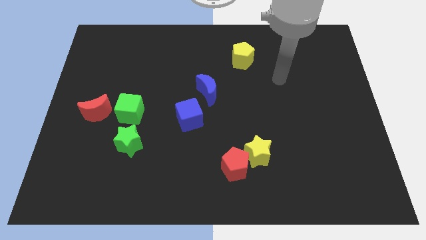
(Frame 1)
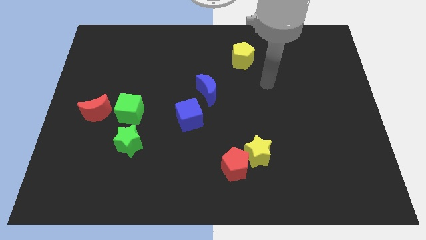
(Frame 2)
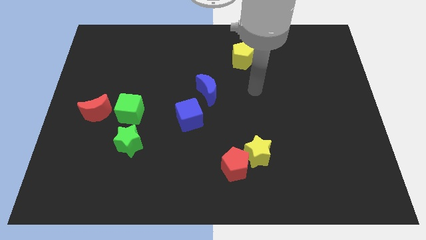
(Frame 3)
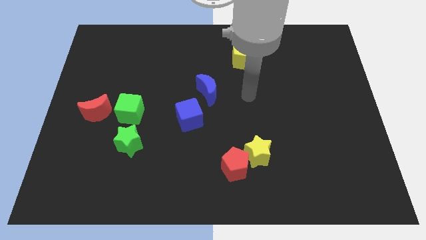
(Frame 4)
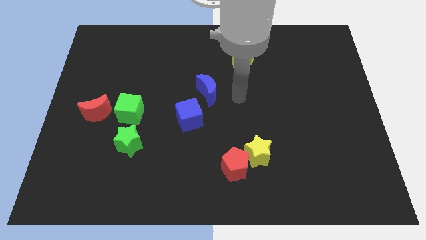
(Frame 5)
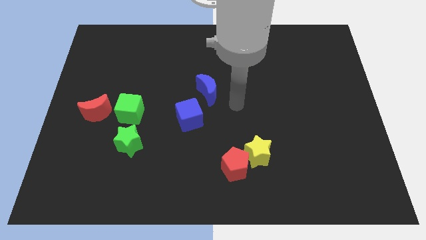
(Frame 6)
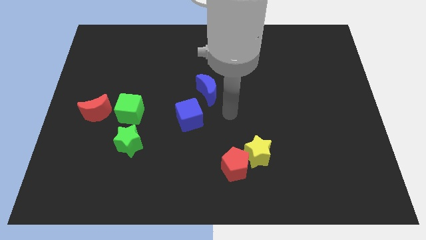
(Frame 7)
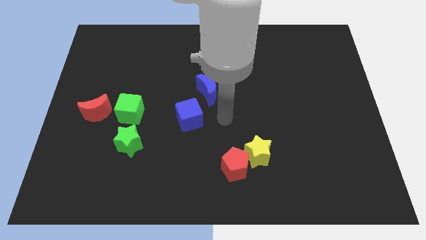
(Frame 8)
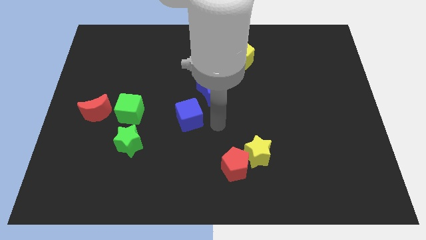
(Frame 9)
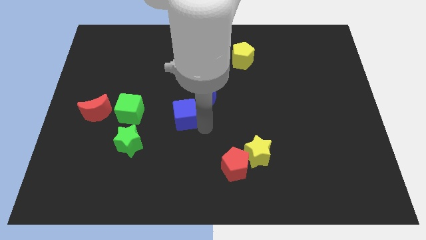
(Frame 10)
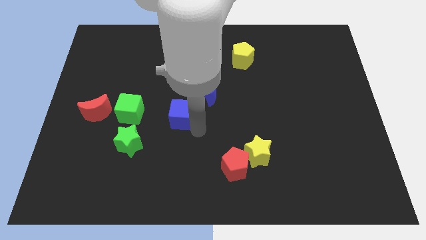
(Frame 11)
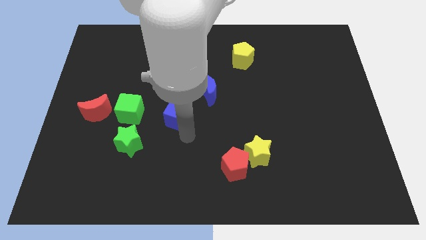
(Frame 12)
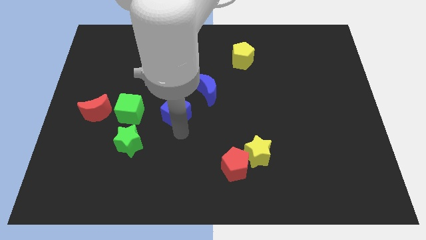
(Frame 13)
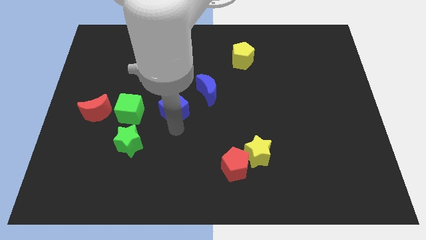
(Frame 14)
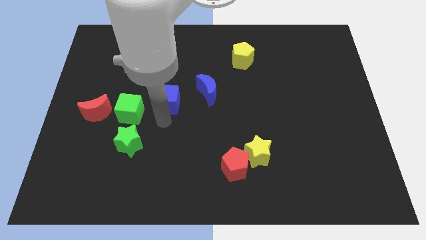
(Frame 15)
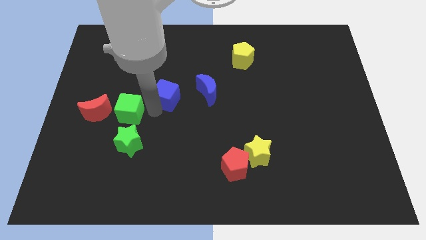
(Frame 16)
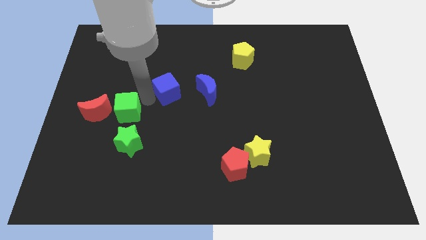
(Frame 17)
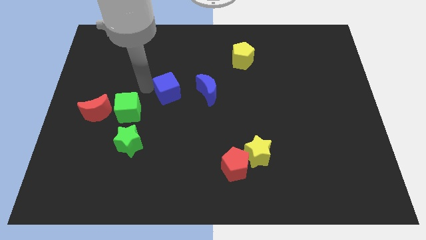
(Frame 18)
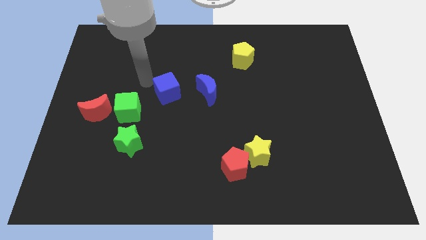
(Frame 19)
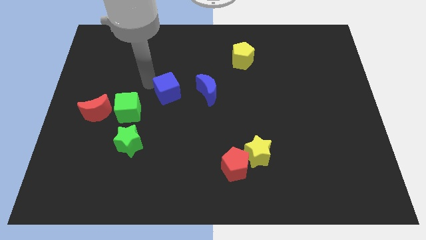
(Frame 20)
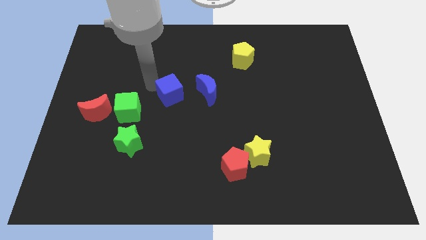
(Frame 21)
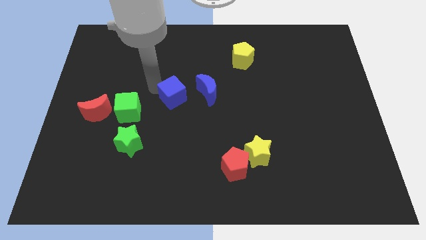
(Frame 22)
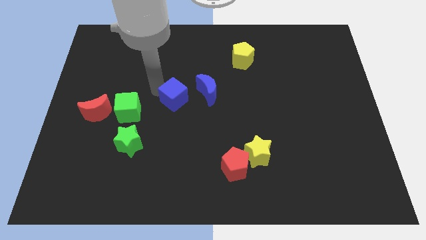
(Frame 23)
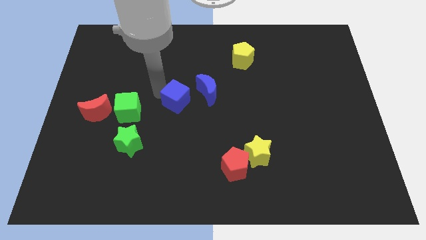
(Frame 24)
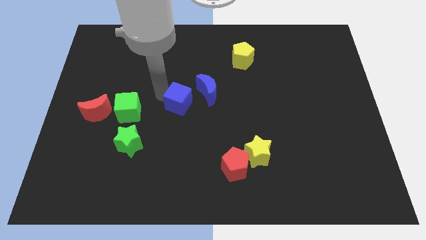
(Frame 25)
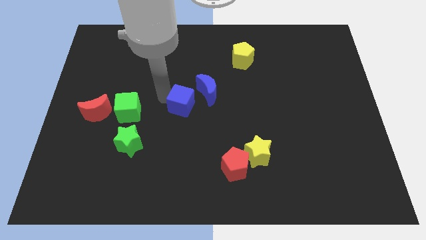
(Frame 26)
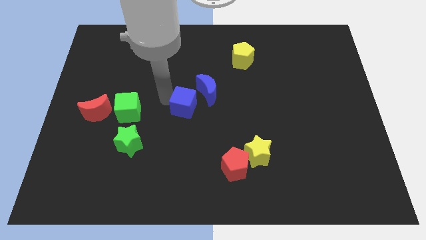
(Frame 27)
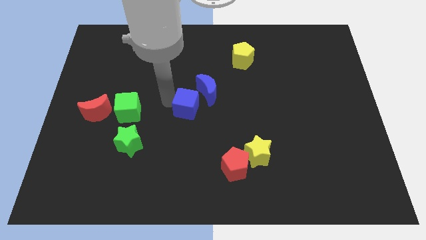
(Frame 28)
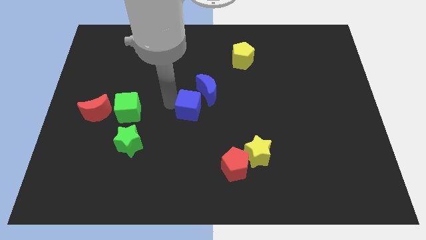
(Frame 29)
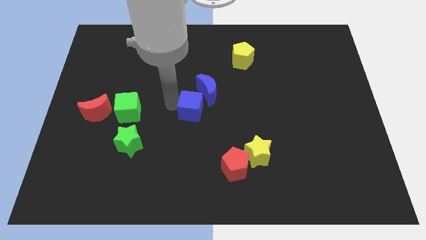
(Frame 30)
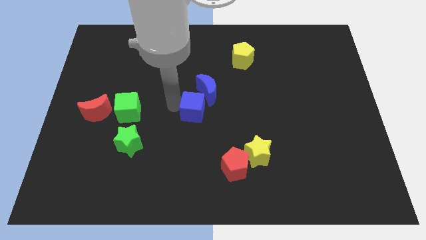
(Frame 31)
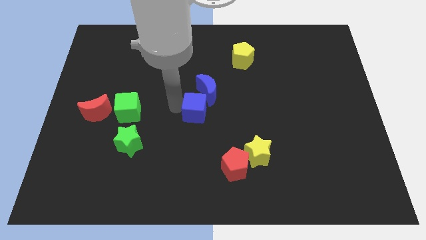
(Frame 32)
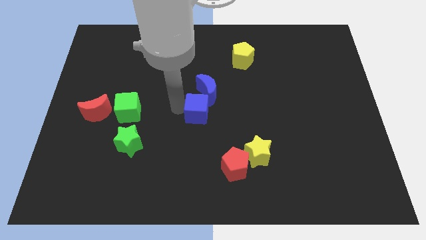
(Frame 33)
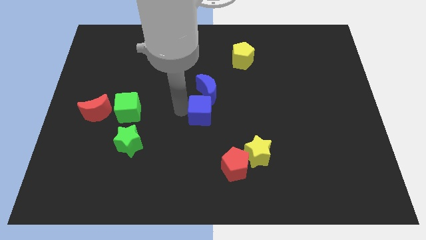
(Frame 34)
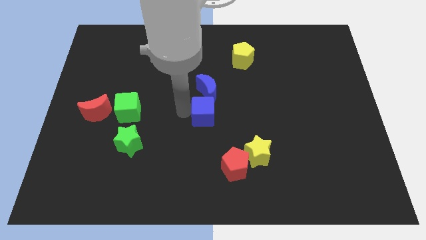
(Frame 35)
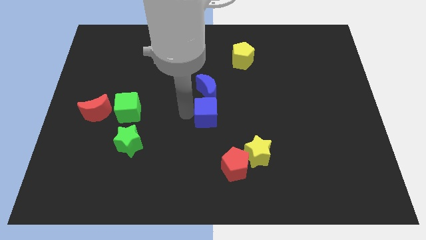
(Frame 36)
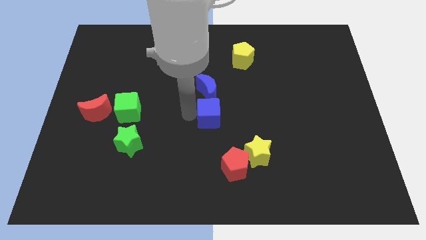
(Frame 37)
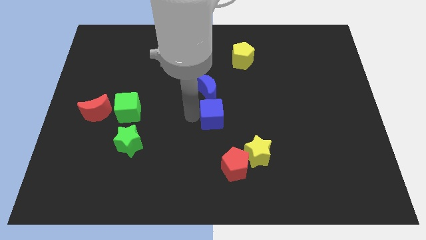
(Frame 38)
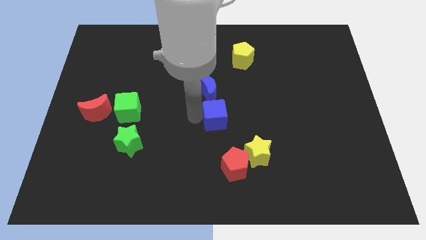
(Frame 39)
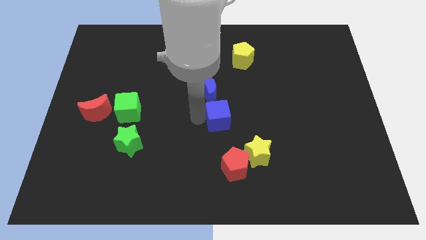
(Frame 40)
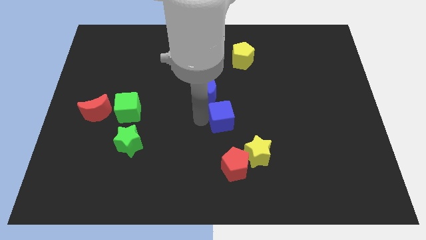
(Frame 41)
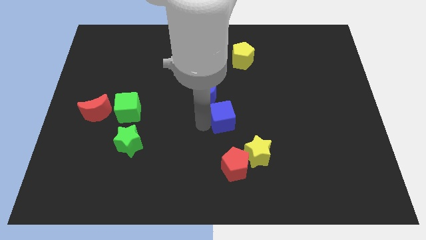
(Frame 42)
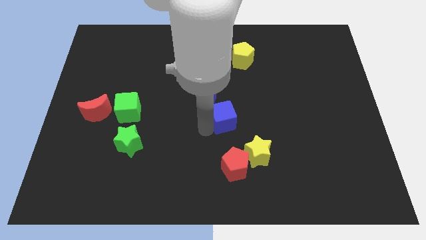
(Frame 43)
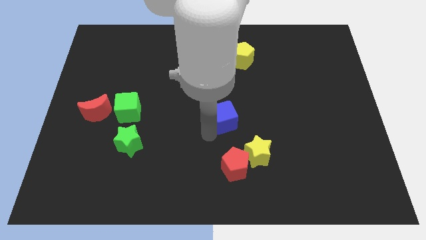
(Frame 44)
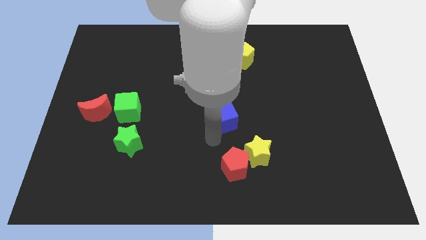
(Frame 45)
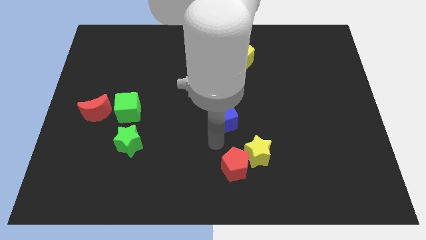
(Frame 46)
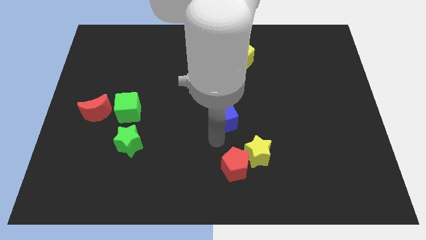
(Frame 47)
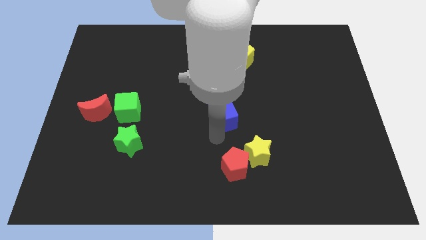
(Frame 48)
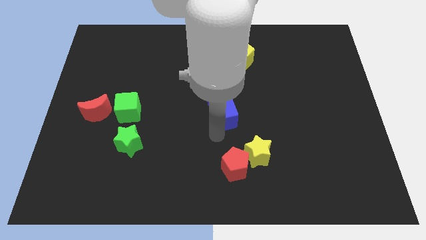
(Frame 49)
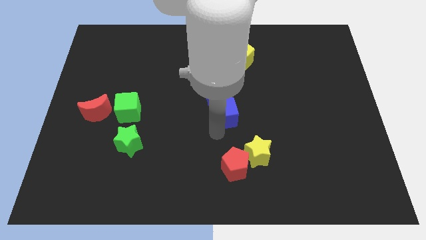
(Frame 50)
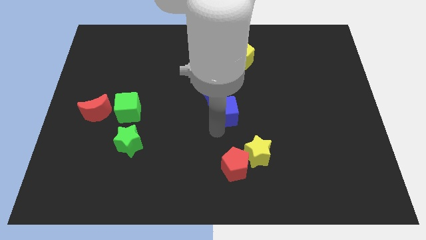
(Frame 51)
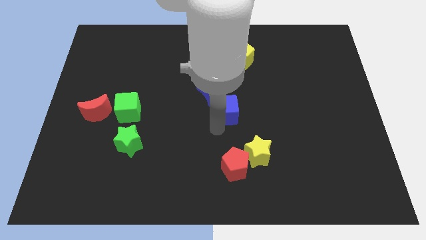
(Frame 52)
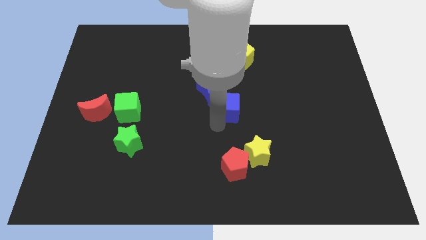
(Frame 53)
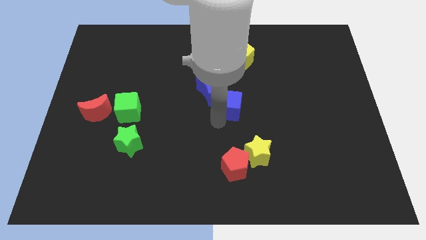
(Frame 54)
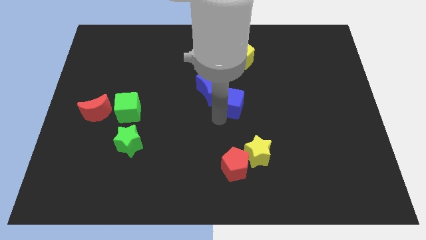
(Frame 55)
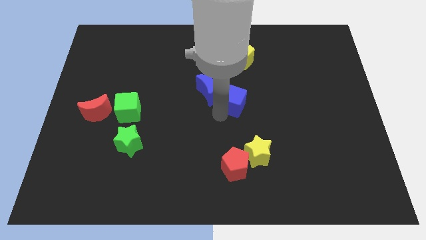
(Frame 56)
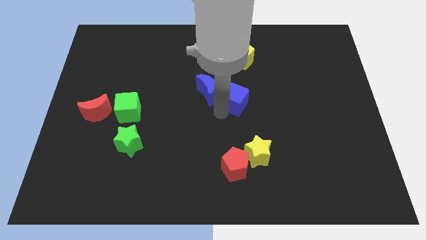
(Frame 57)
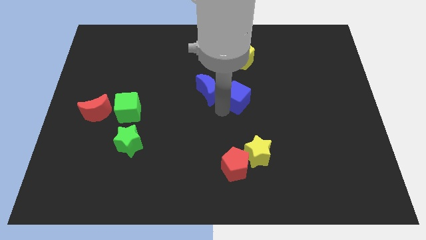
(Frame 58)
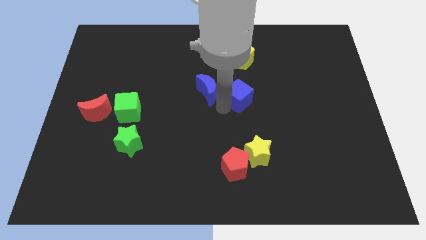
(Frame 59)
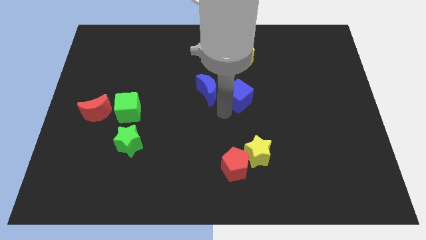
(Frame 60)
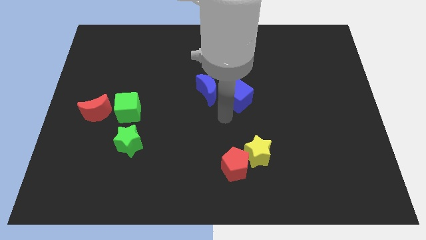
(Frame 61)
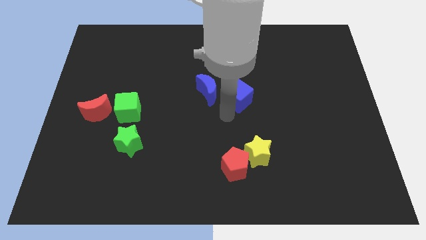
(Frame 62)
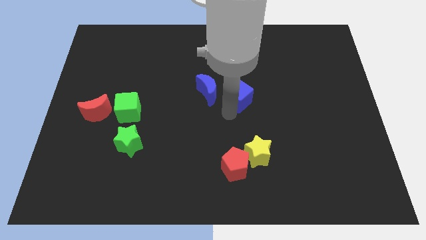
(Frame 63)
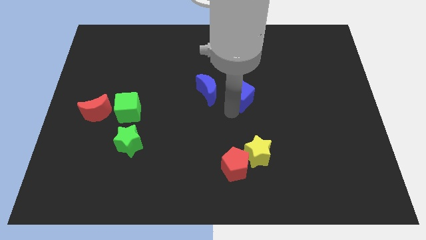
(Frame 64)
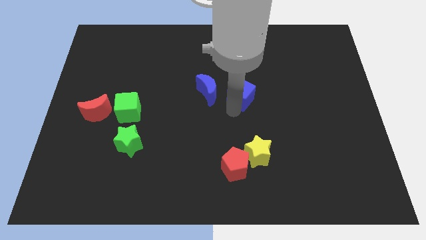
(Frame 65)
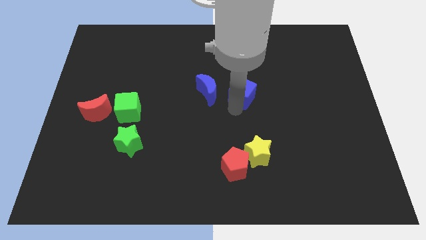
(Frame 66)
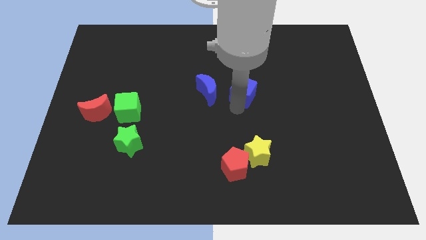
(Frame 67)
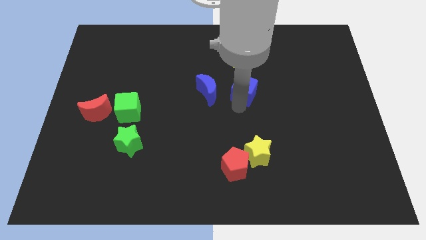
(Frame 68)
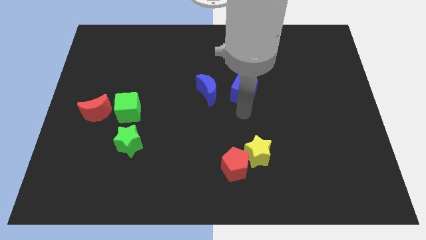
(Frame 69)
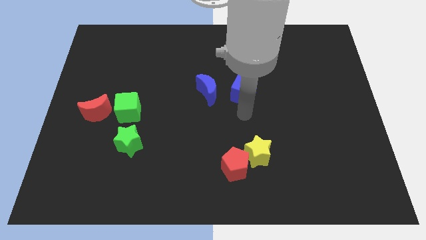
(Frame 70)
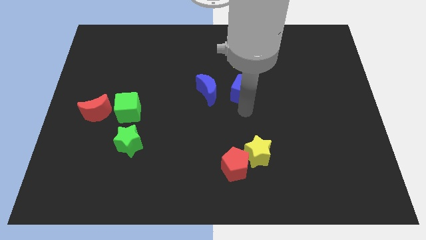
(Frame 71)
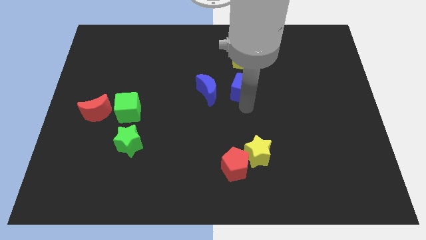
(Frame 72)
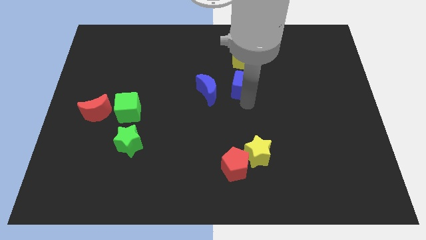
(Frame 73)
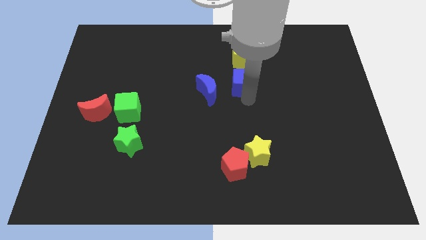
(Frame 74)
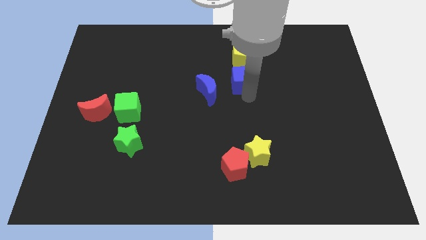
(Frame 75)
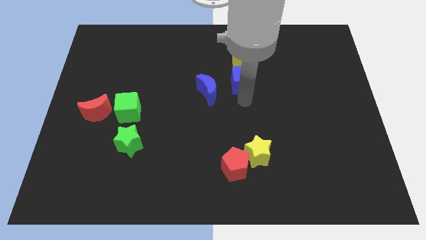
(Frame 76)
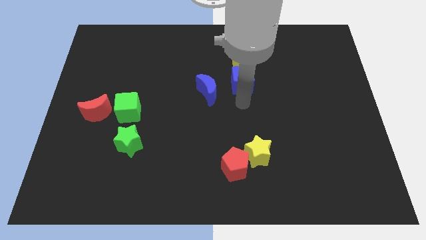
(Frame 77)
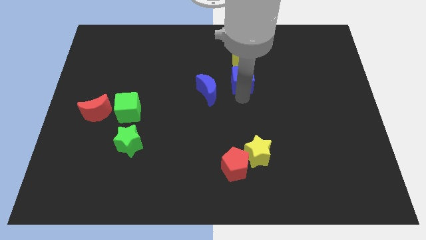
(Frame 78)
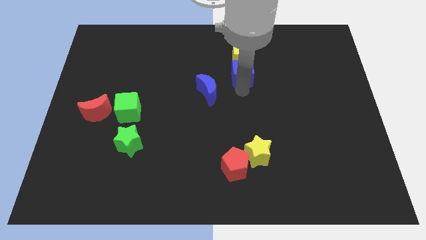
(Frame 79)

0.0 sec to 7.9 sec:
push the blue cube close to the yellow pentagon
